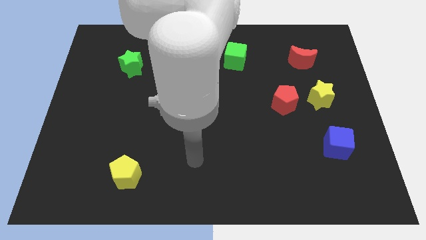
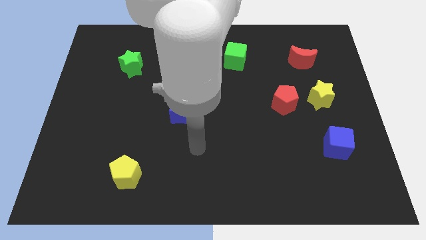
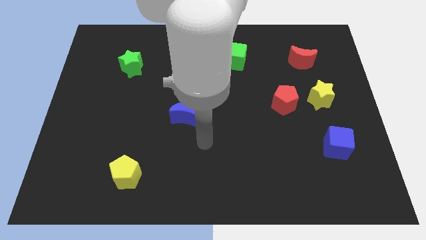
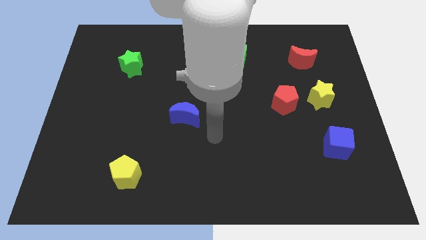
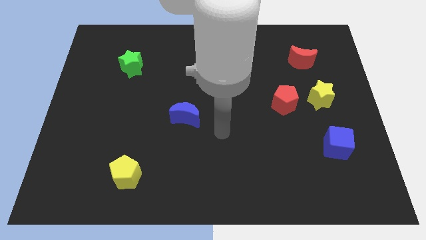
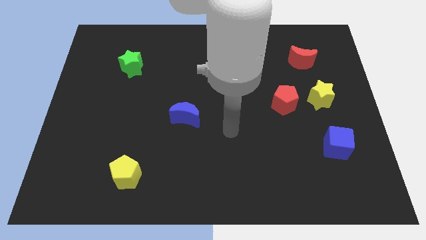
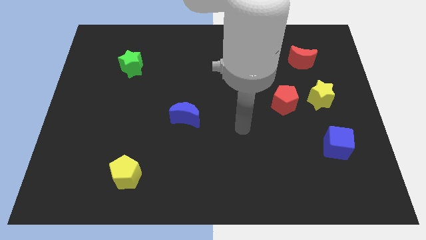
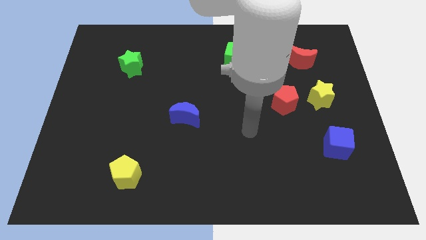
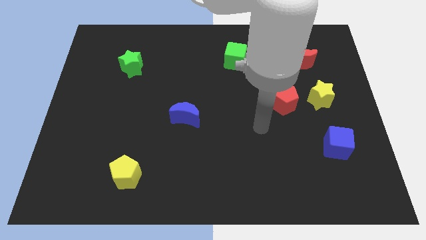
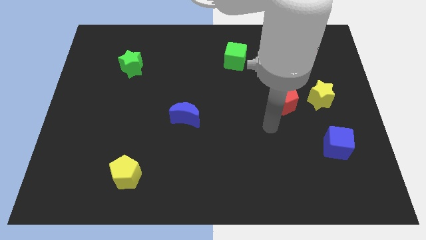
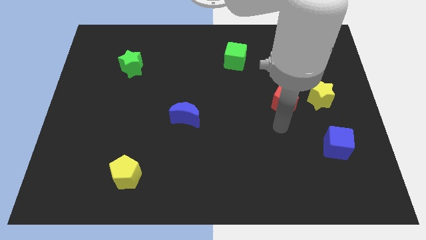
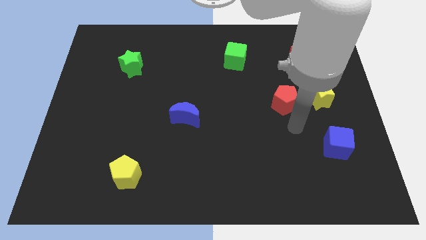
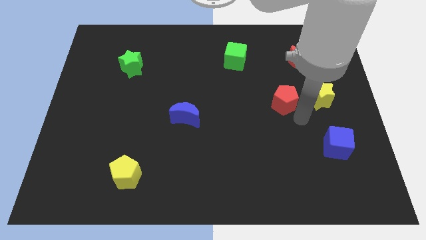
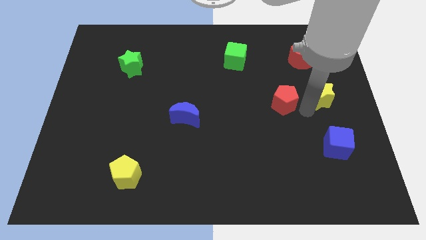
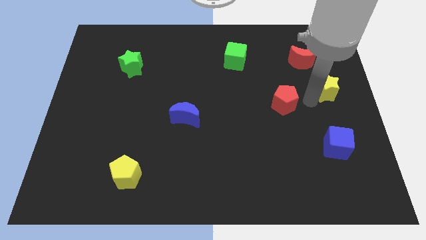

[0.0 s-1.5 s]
separate the red pentagon from the yellow star

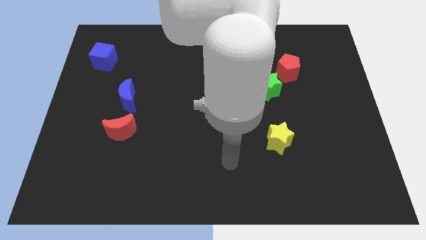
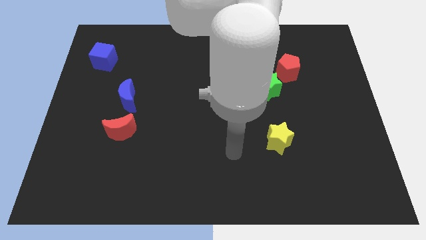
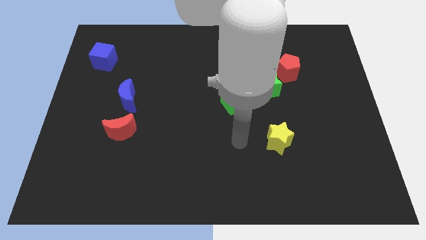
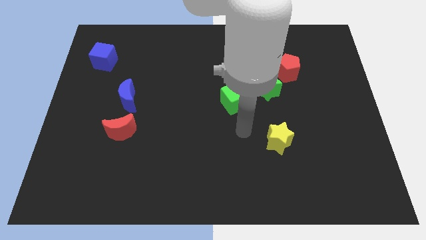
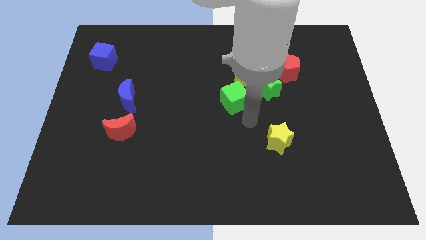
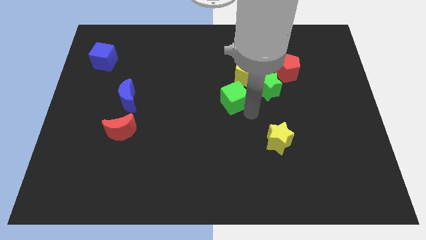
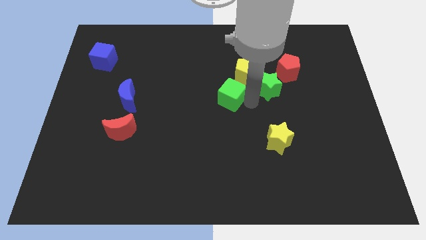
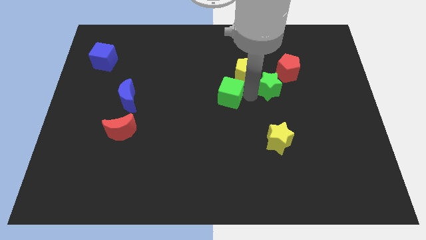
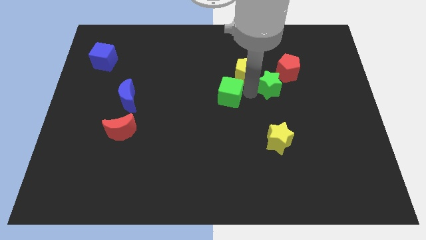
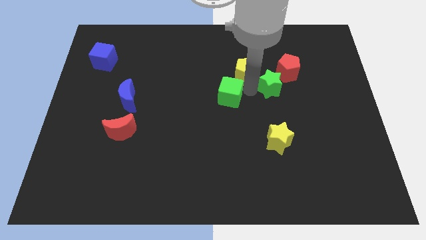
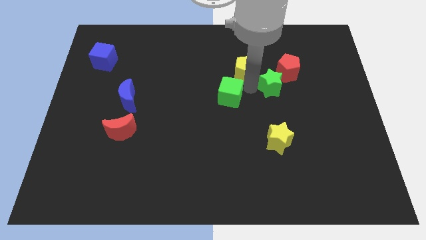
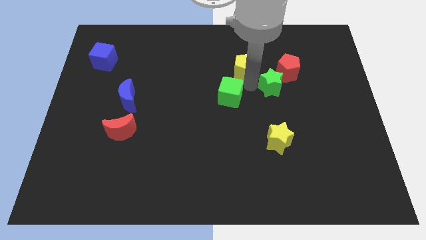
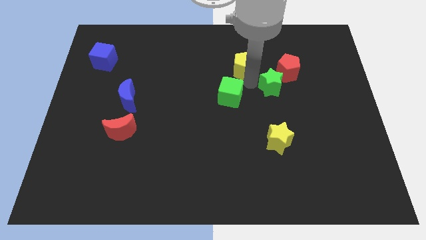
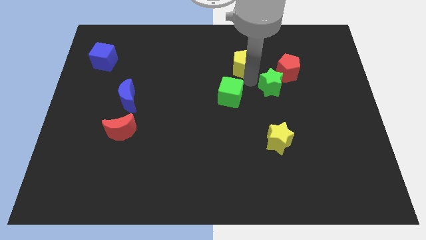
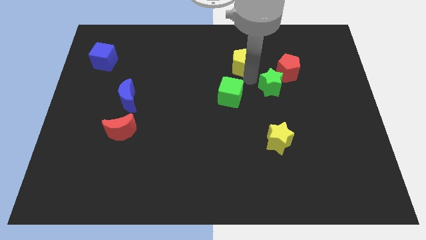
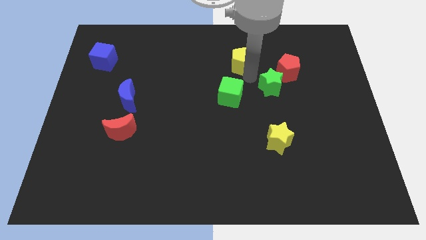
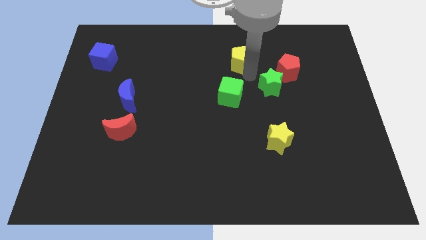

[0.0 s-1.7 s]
pull the yellow pentagon apart from the green star and green cube

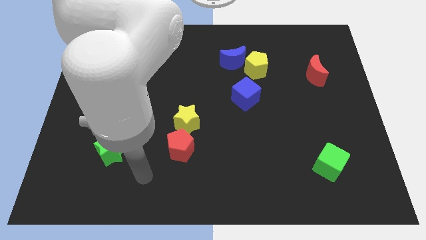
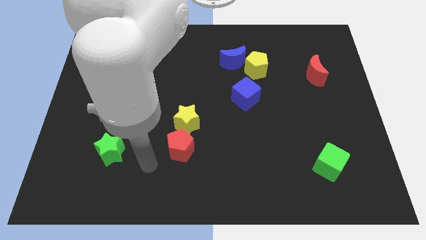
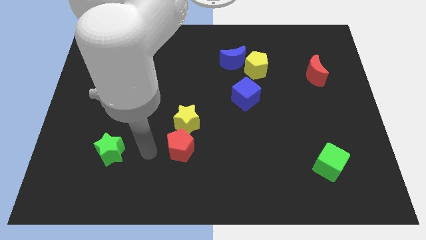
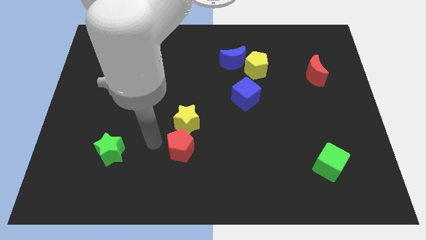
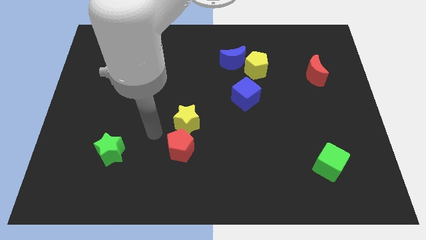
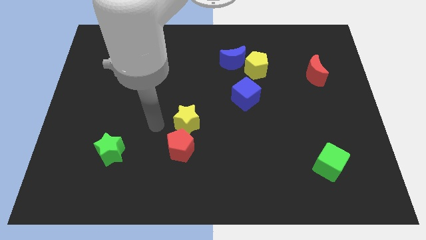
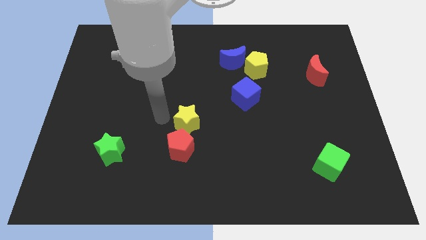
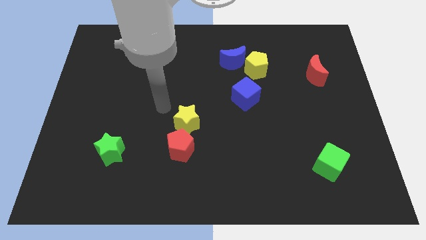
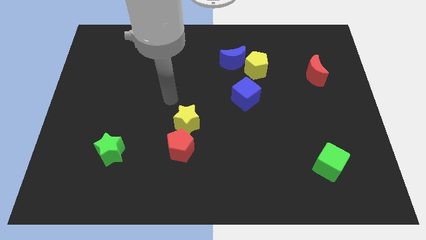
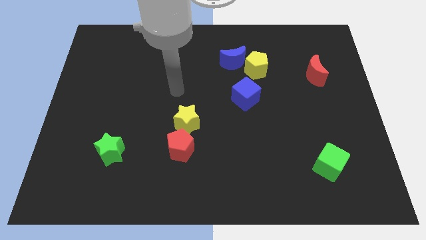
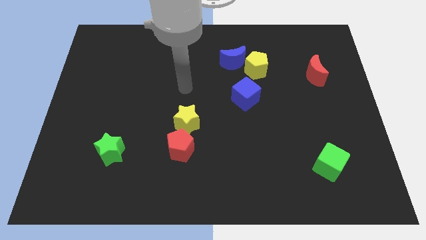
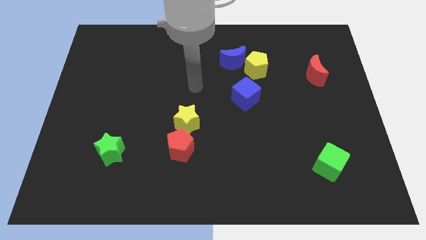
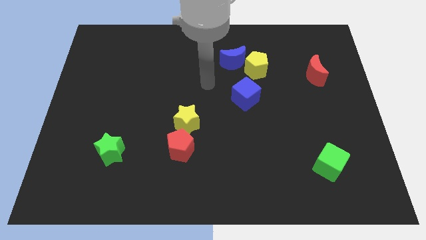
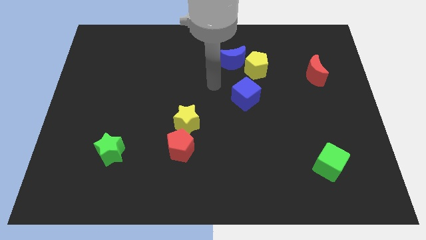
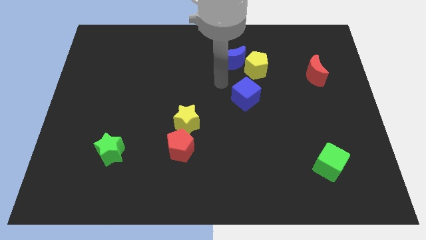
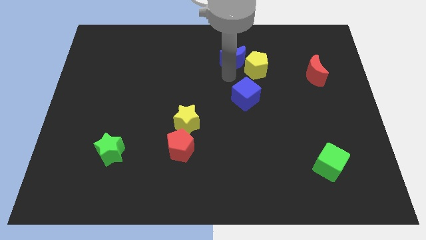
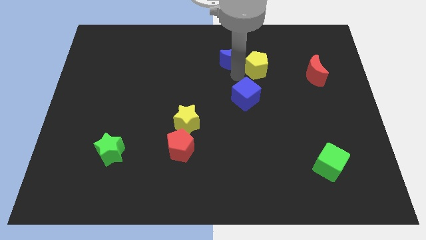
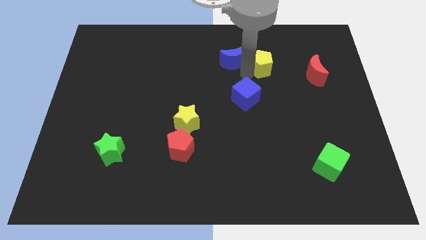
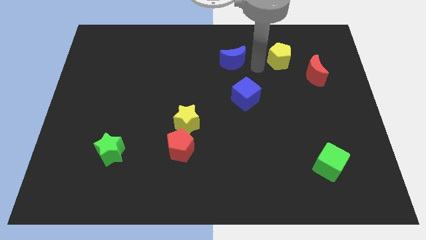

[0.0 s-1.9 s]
move the blue moon away from the yellow pentagon

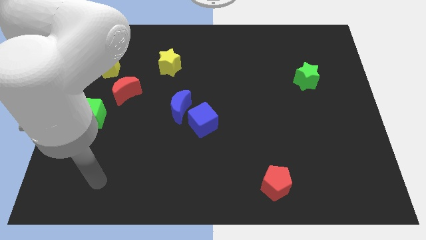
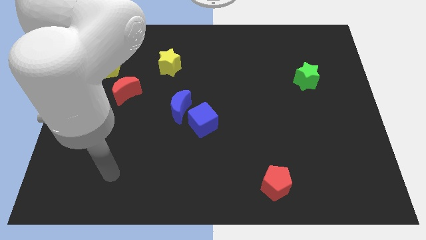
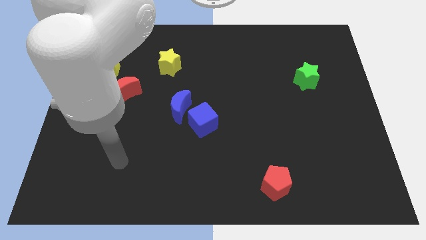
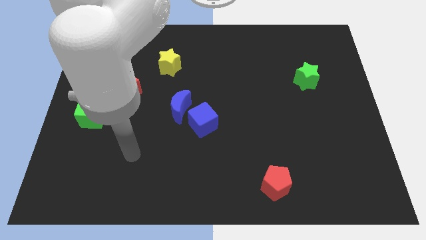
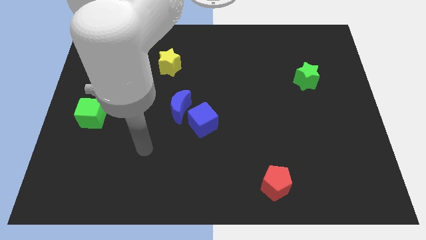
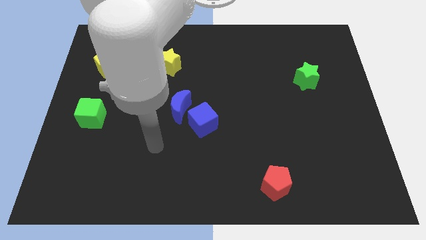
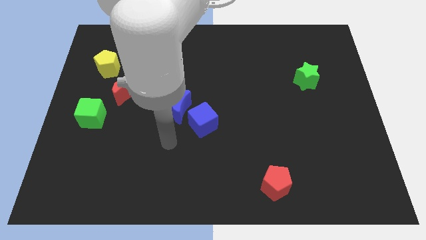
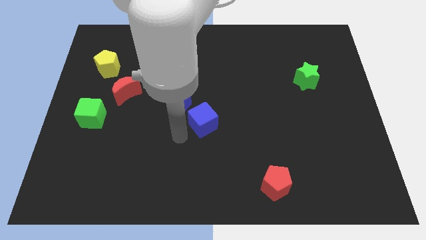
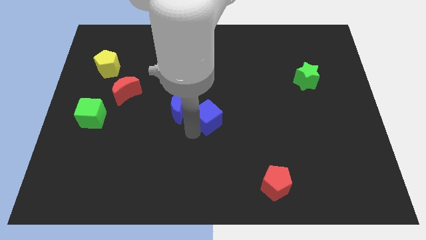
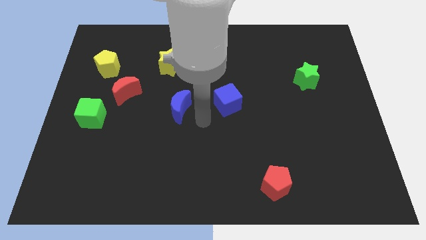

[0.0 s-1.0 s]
pull the blue moon apart from the blue cube

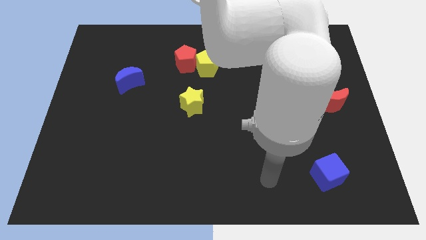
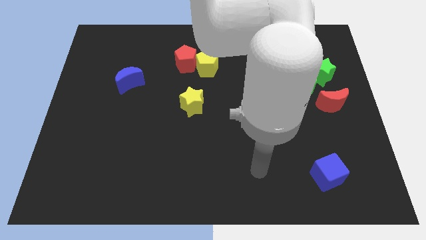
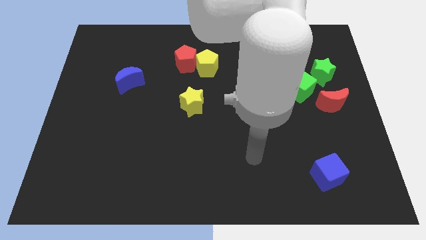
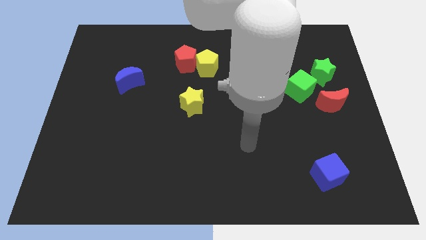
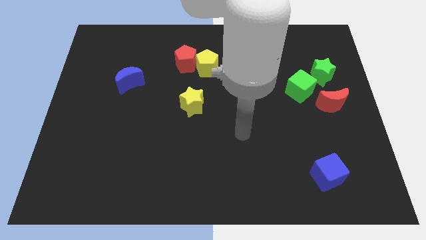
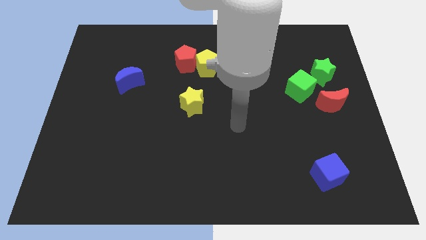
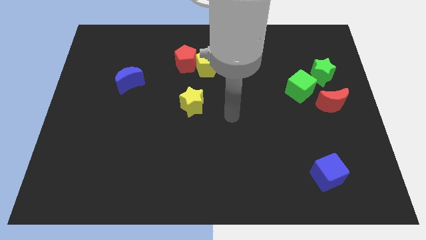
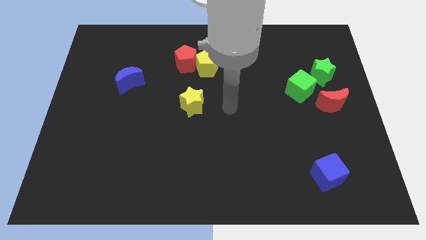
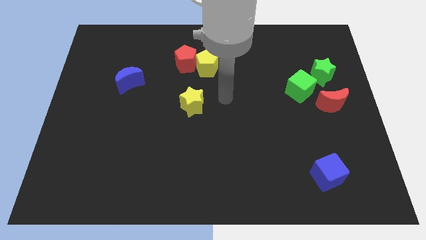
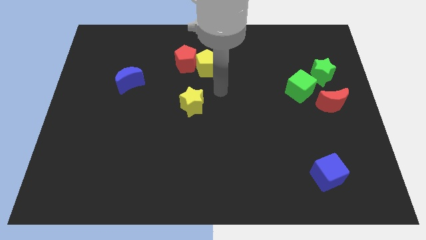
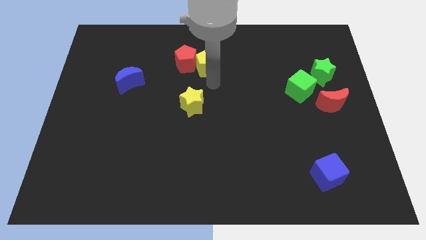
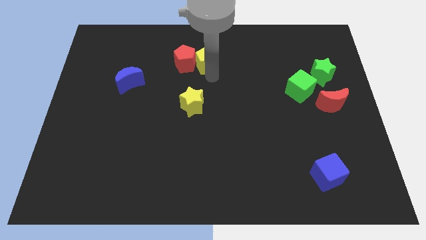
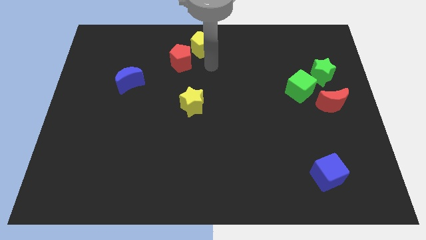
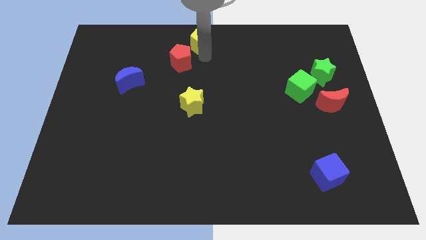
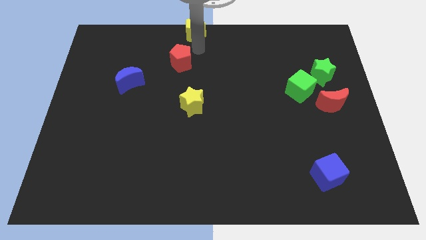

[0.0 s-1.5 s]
separate the red pentagon from the yellow pentagon

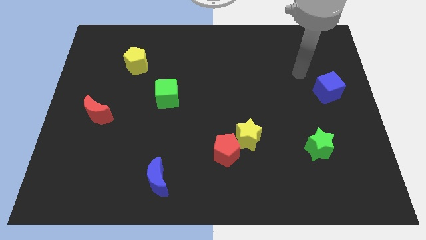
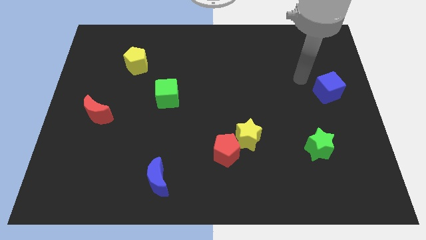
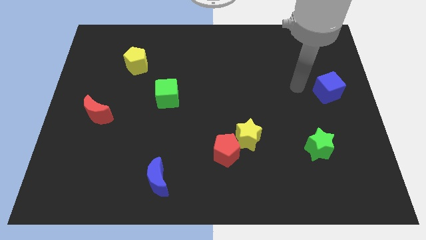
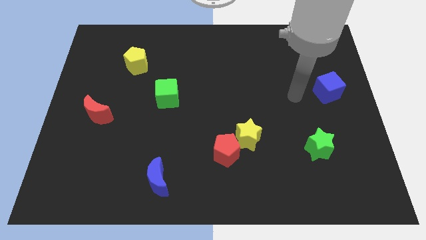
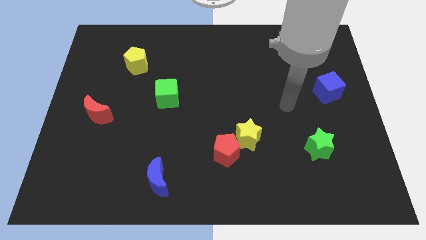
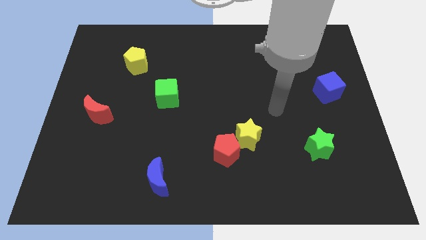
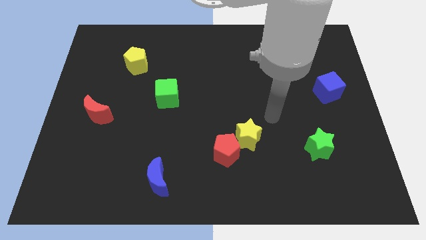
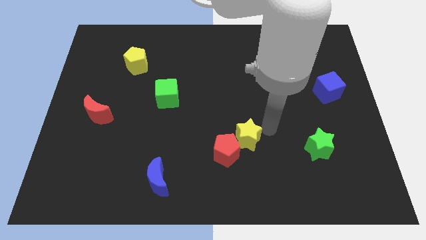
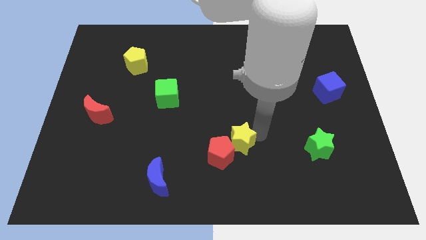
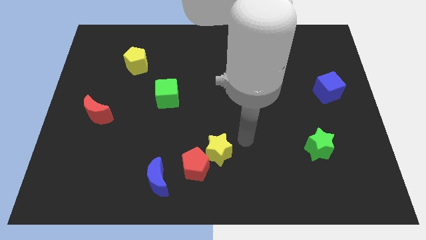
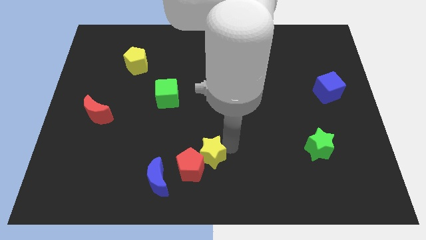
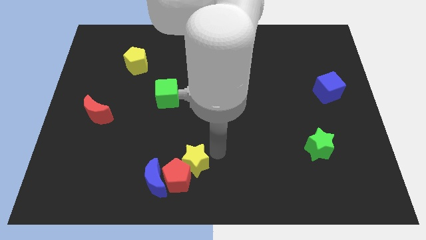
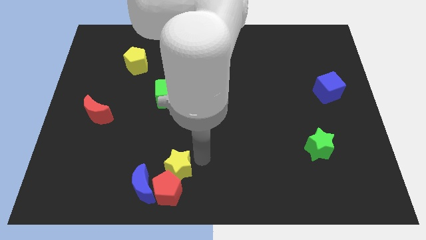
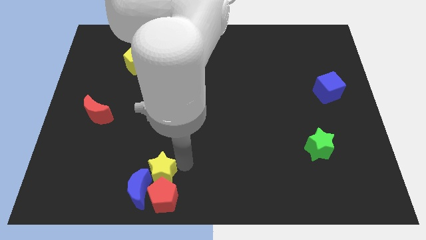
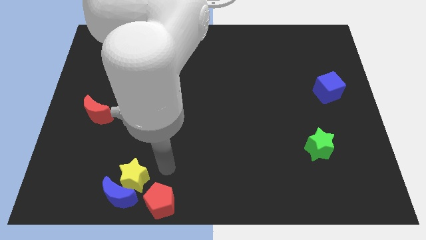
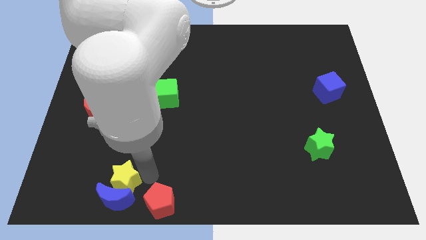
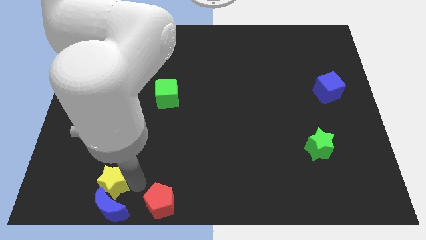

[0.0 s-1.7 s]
move the red pentagon away from the yellow star
